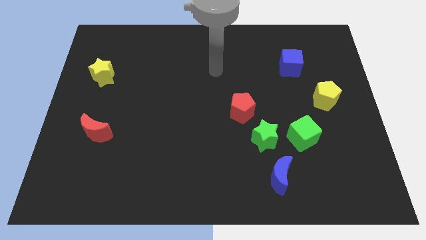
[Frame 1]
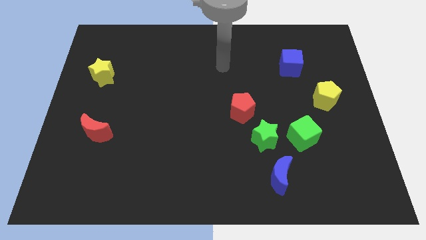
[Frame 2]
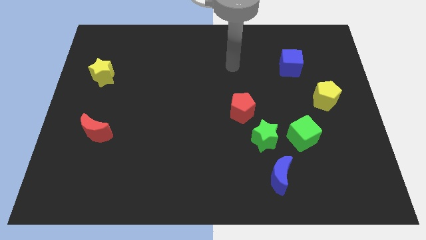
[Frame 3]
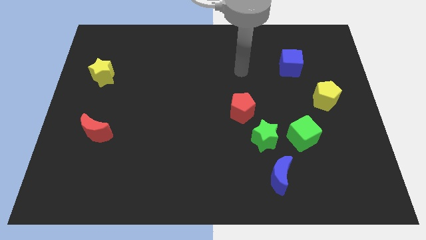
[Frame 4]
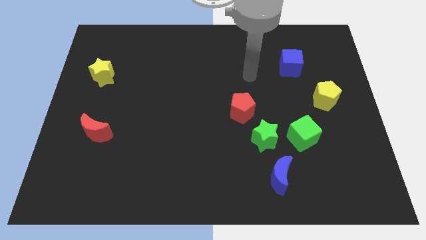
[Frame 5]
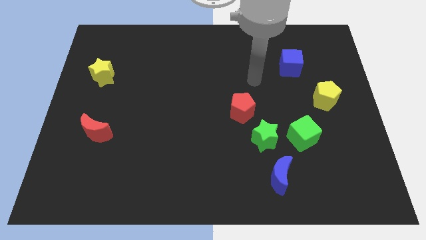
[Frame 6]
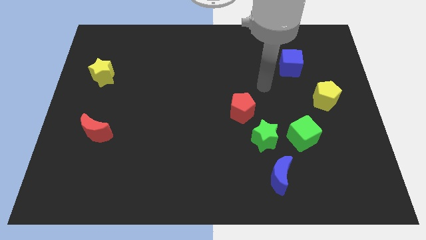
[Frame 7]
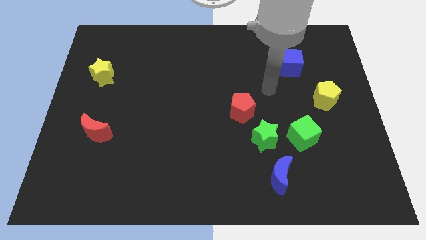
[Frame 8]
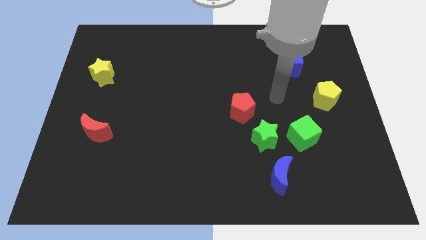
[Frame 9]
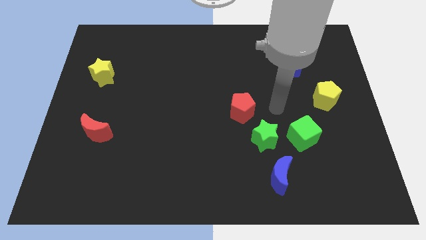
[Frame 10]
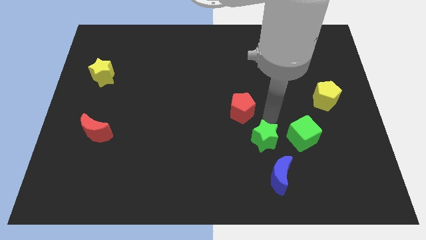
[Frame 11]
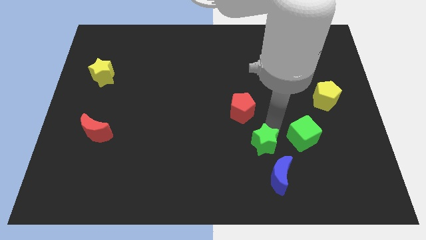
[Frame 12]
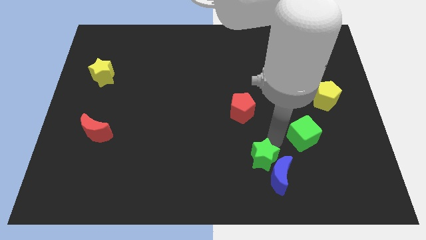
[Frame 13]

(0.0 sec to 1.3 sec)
separate the green cube from the green star

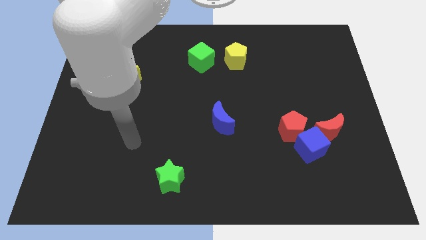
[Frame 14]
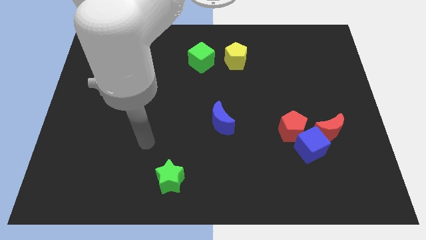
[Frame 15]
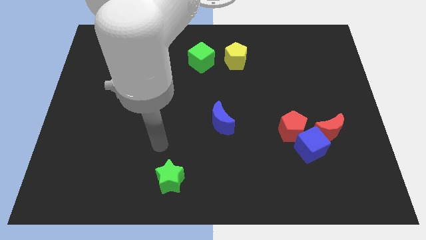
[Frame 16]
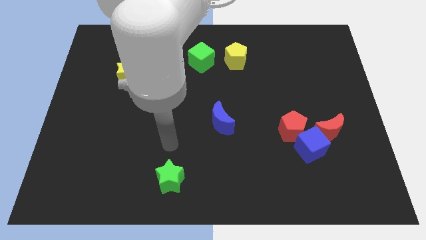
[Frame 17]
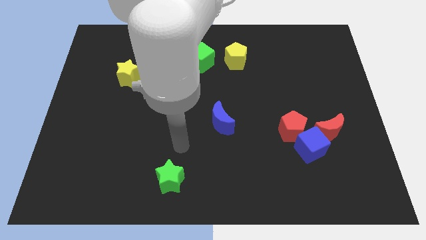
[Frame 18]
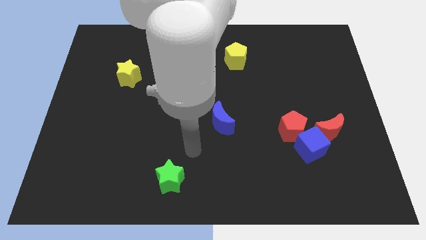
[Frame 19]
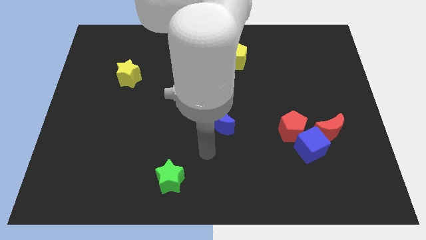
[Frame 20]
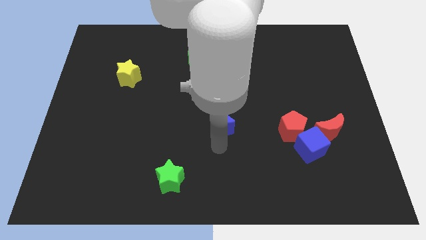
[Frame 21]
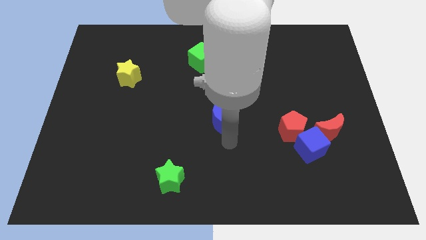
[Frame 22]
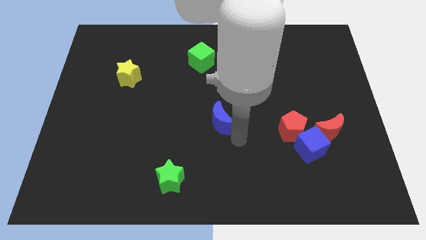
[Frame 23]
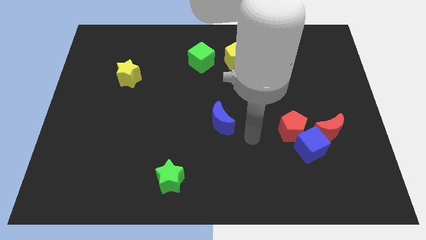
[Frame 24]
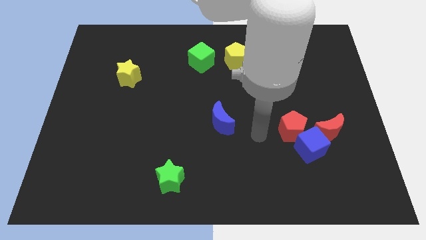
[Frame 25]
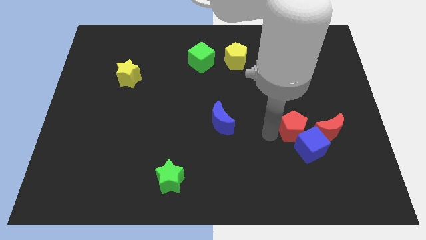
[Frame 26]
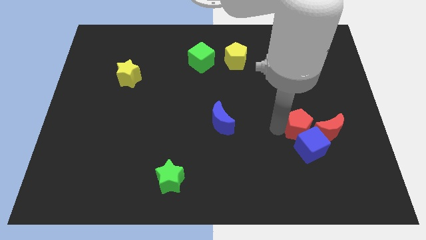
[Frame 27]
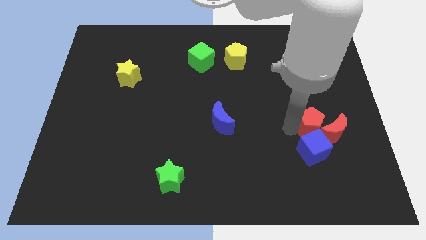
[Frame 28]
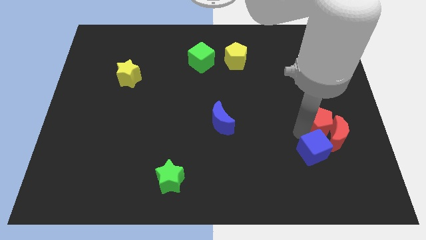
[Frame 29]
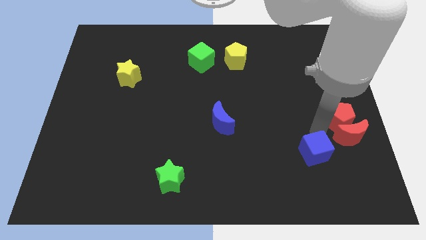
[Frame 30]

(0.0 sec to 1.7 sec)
move the blue cube away from the red pentagon and red moon

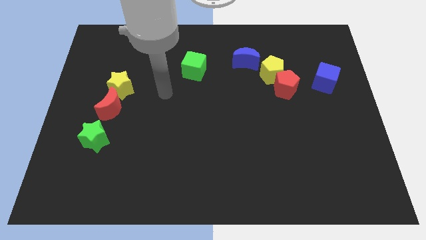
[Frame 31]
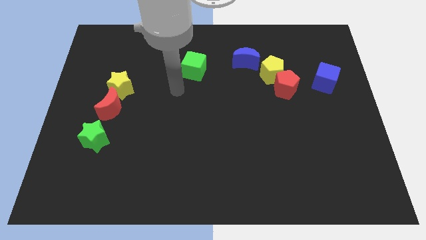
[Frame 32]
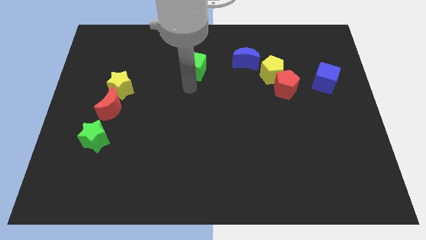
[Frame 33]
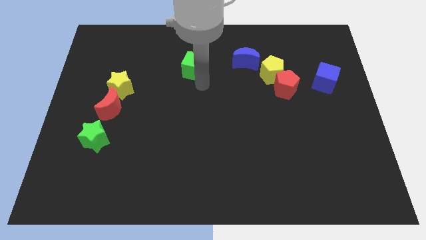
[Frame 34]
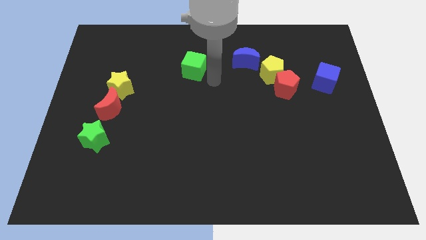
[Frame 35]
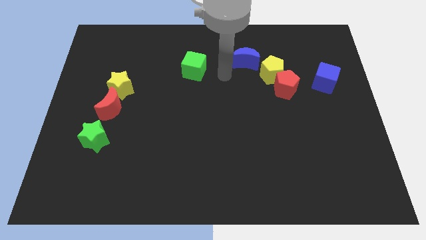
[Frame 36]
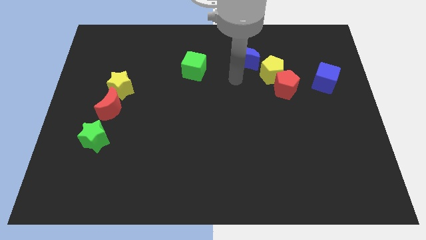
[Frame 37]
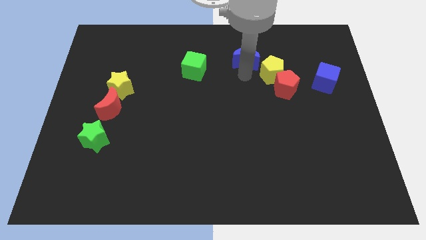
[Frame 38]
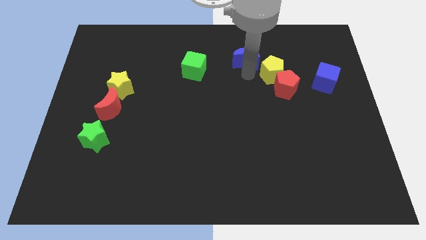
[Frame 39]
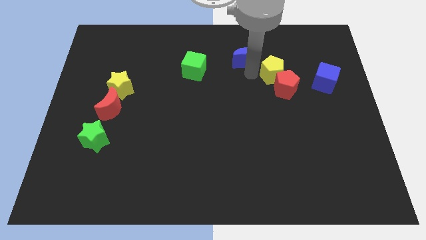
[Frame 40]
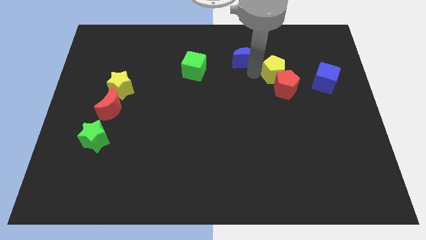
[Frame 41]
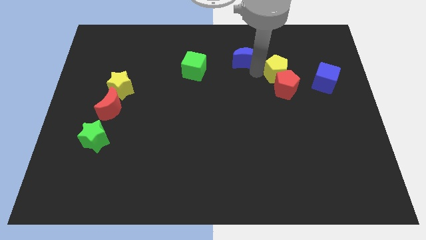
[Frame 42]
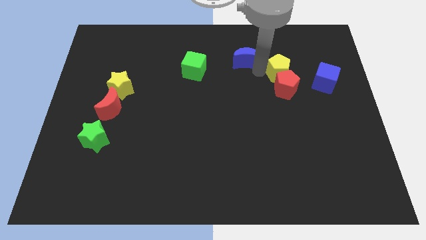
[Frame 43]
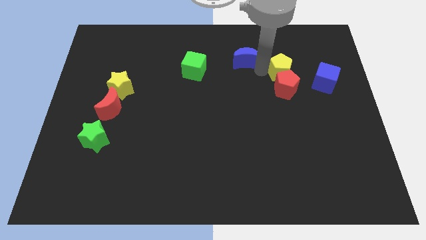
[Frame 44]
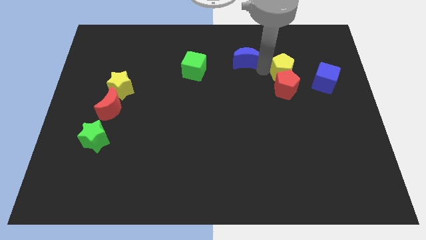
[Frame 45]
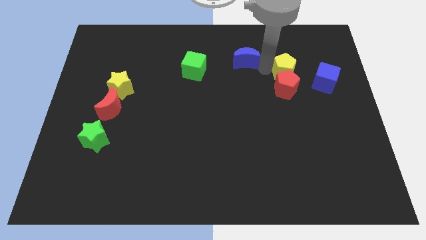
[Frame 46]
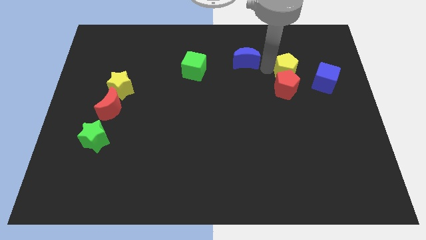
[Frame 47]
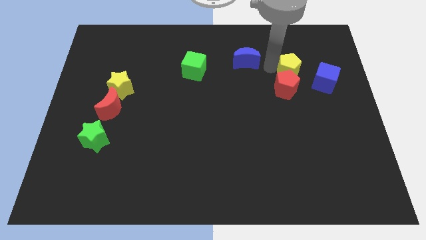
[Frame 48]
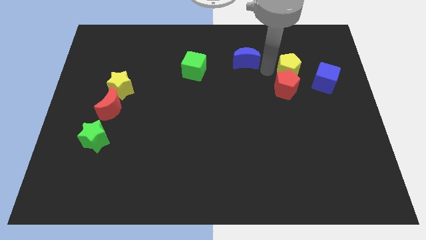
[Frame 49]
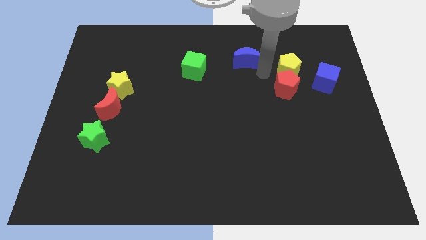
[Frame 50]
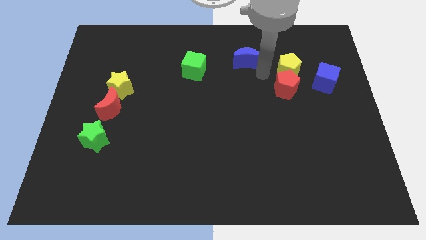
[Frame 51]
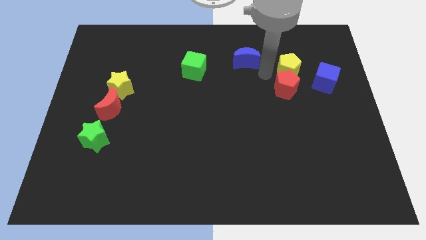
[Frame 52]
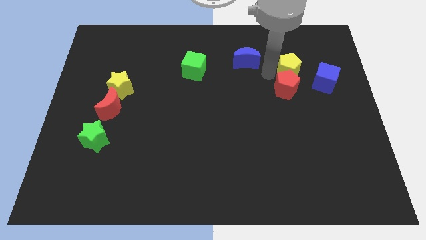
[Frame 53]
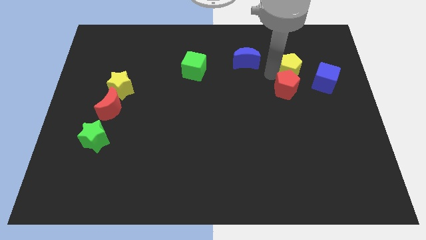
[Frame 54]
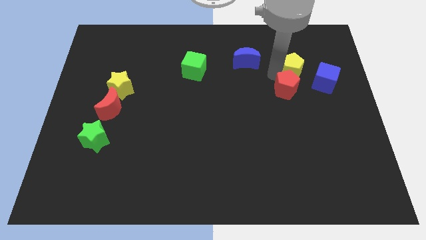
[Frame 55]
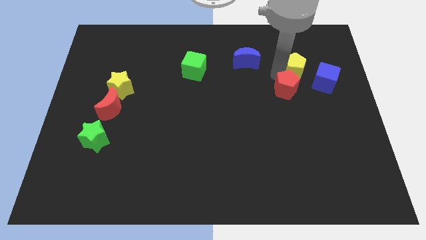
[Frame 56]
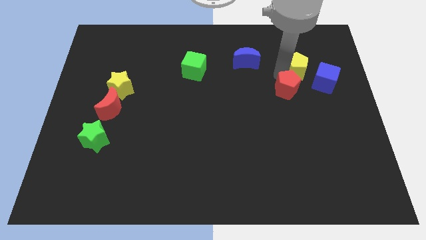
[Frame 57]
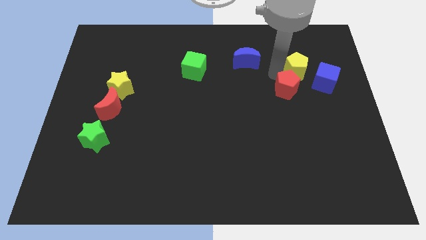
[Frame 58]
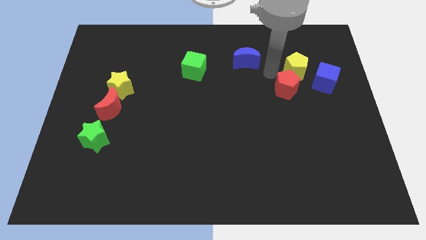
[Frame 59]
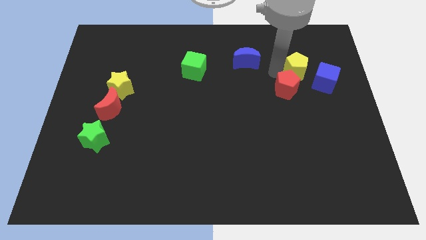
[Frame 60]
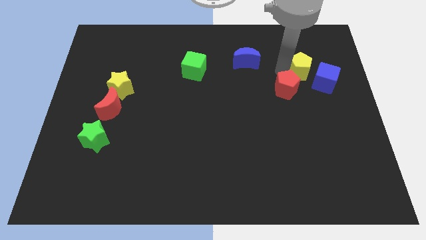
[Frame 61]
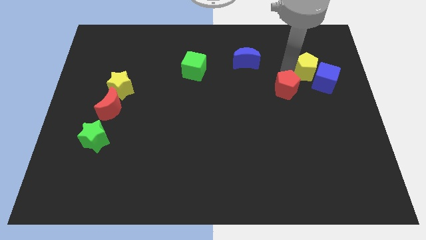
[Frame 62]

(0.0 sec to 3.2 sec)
move the yellow pentagon away from the red pentagon and blue moon

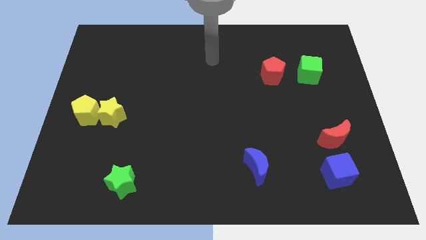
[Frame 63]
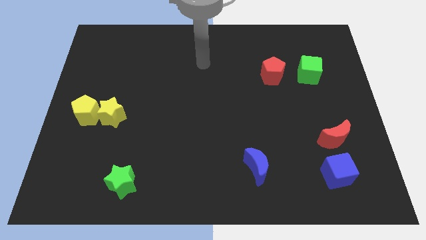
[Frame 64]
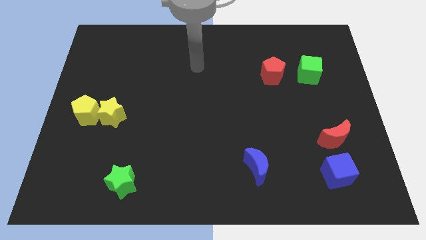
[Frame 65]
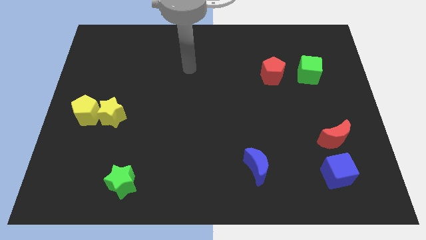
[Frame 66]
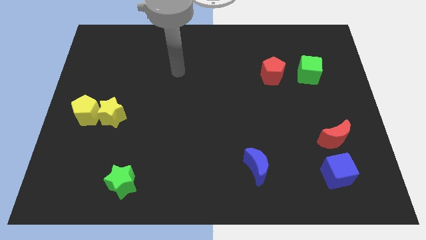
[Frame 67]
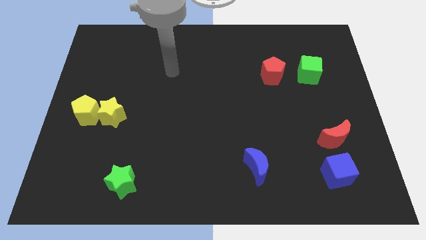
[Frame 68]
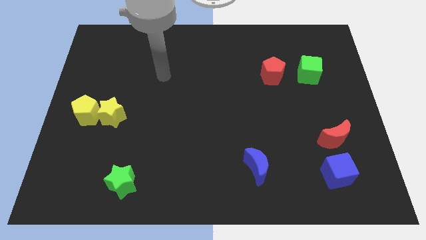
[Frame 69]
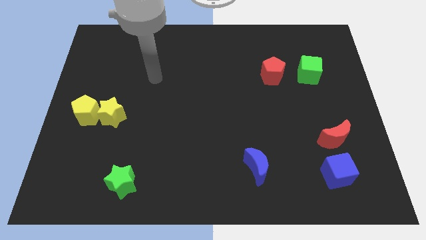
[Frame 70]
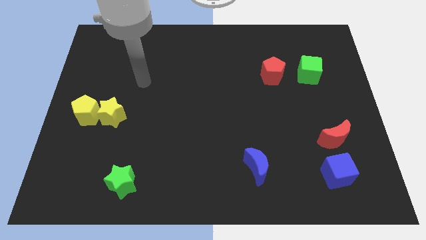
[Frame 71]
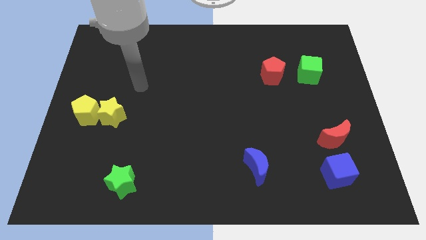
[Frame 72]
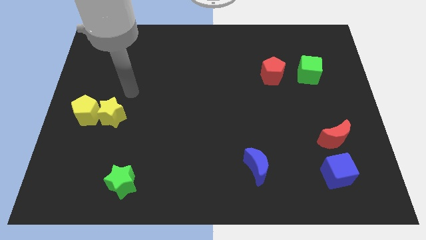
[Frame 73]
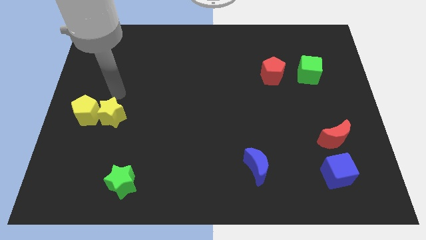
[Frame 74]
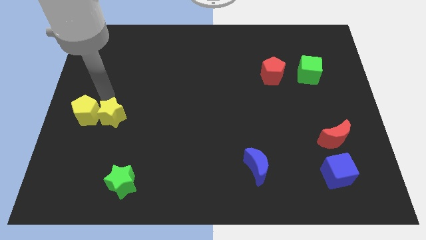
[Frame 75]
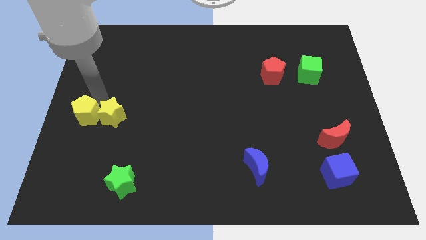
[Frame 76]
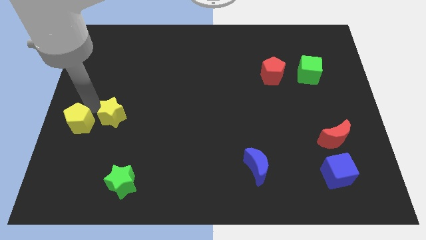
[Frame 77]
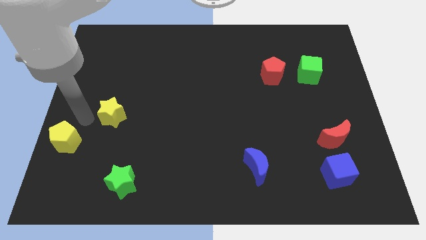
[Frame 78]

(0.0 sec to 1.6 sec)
separate the yellow star from the yellow pentagon

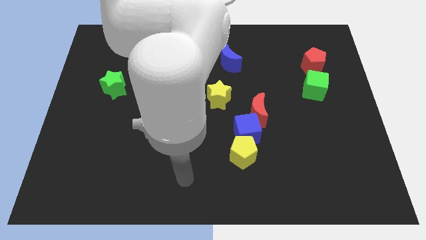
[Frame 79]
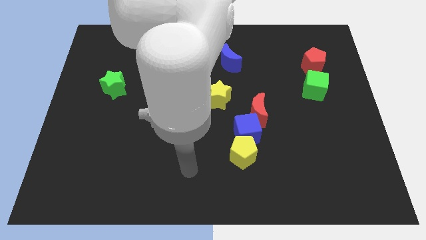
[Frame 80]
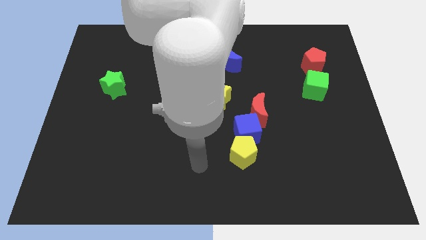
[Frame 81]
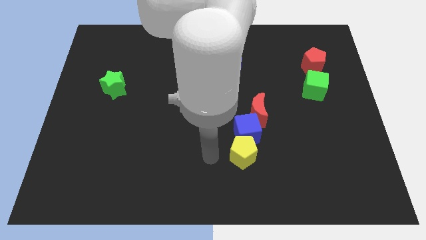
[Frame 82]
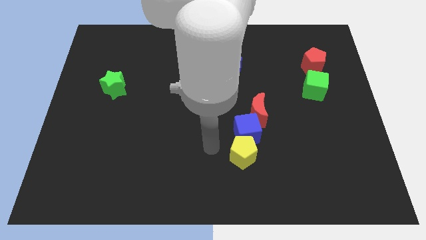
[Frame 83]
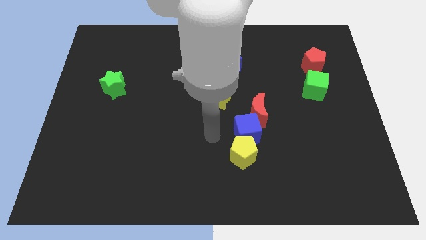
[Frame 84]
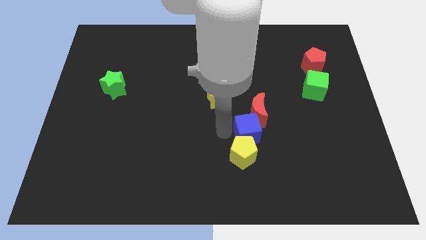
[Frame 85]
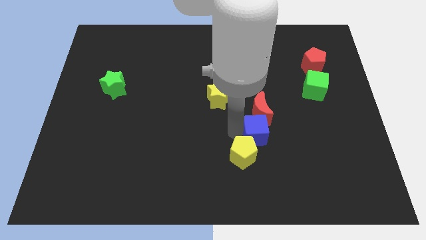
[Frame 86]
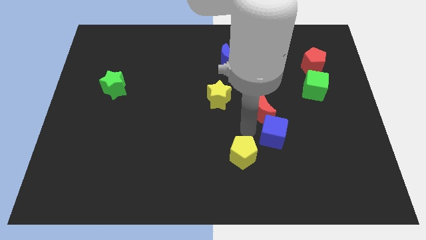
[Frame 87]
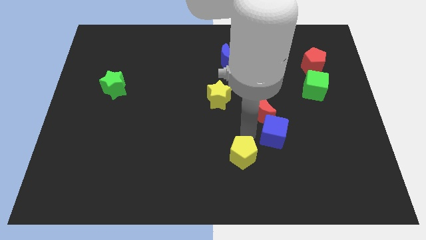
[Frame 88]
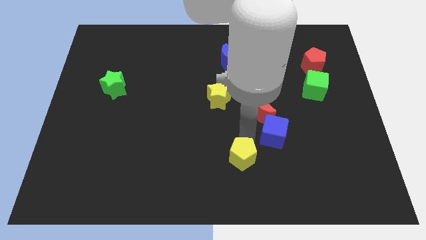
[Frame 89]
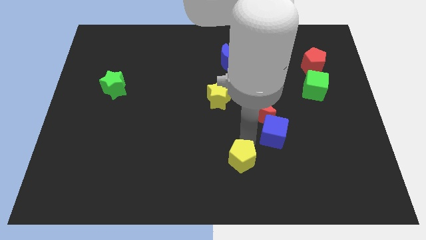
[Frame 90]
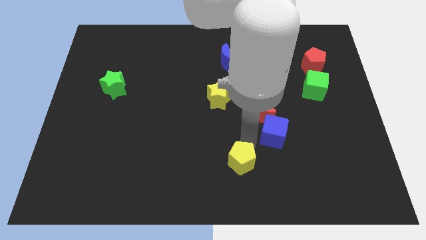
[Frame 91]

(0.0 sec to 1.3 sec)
pull the yellow pentagon apart from the blue cube

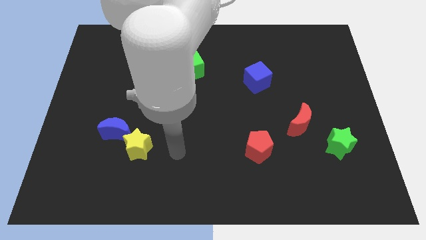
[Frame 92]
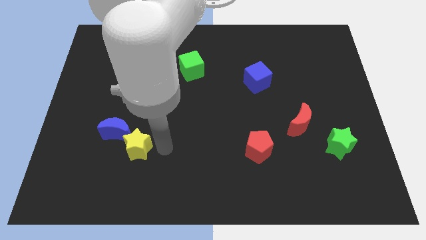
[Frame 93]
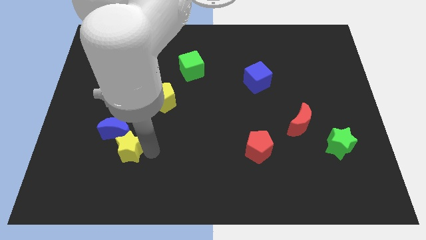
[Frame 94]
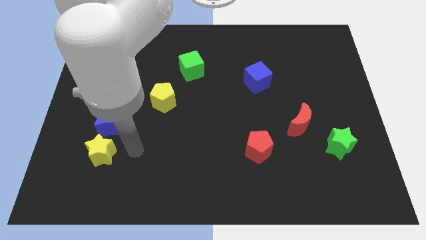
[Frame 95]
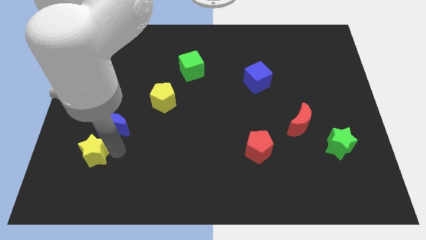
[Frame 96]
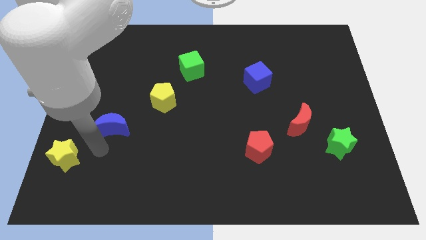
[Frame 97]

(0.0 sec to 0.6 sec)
pull the blue moon apart from the yellow star
